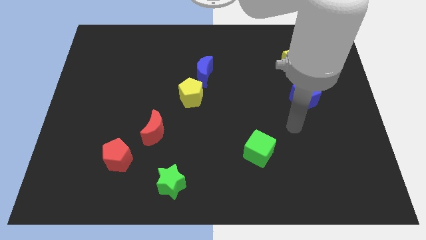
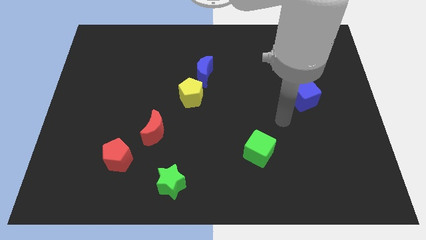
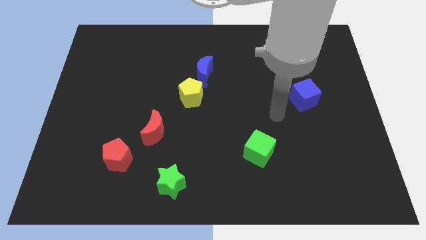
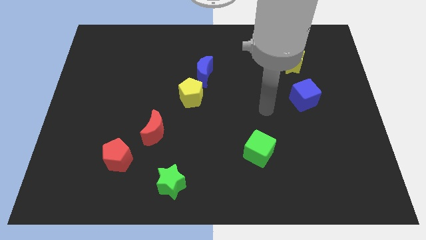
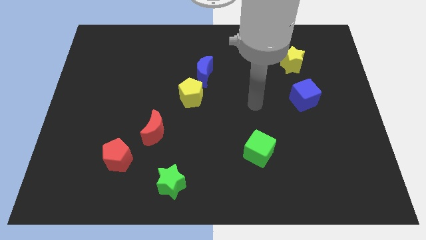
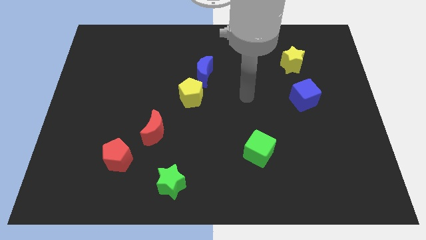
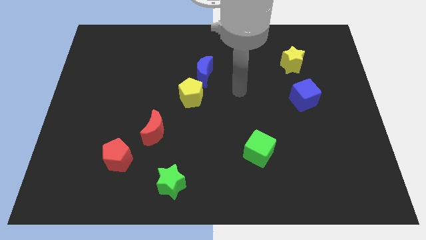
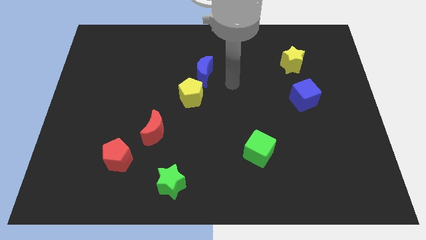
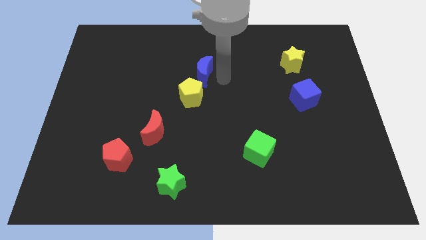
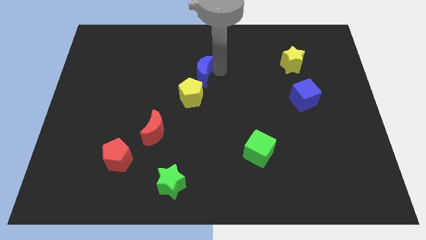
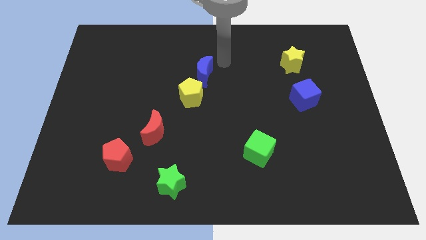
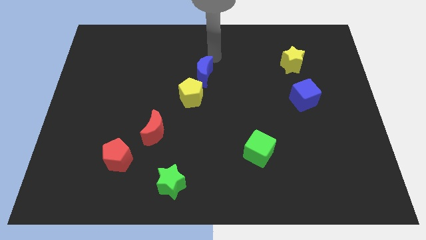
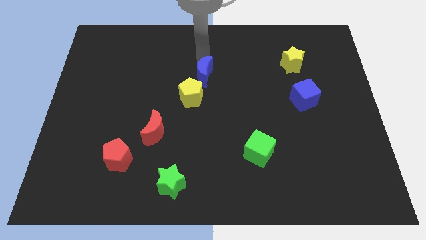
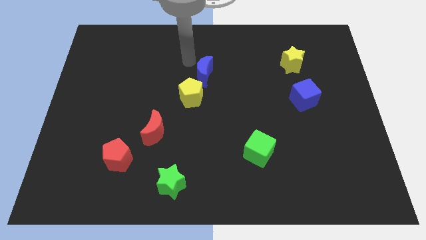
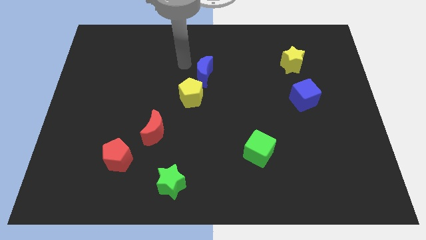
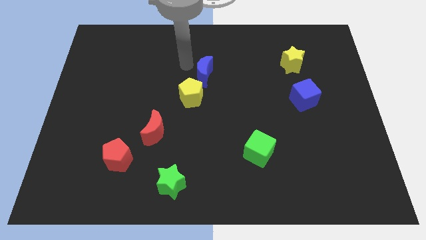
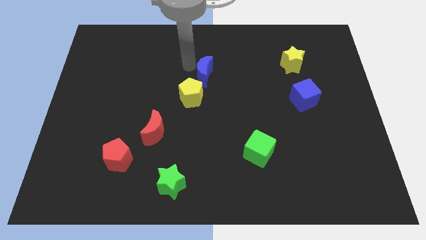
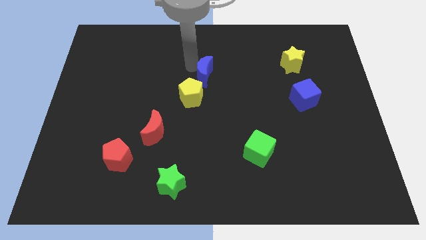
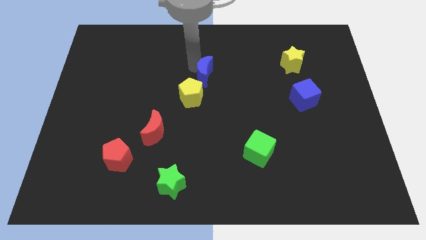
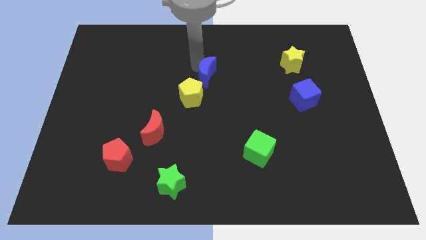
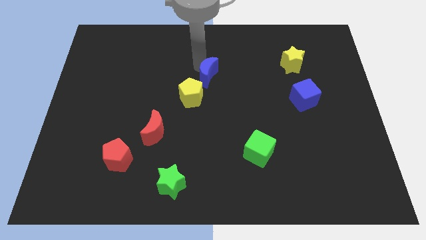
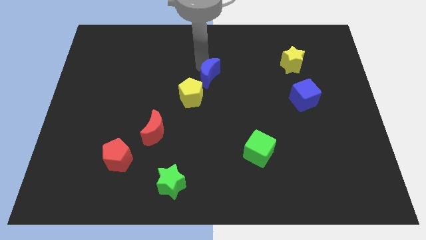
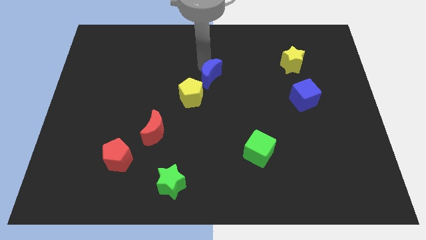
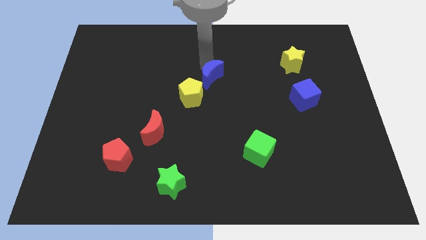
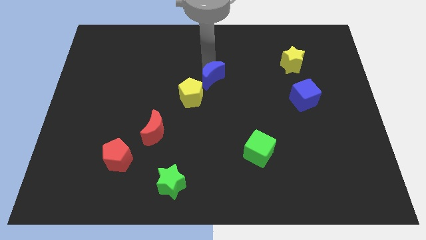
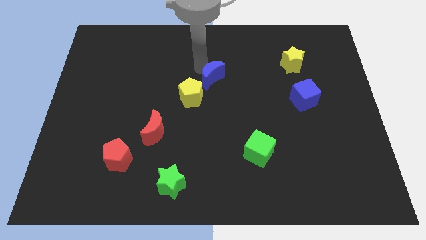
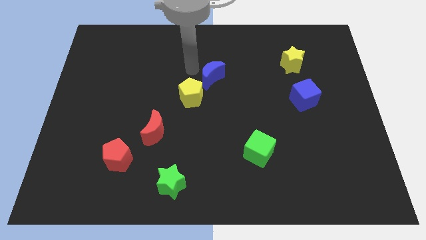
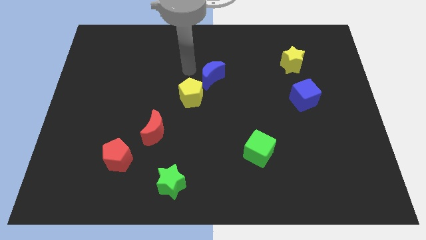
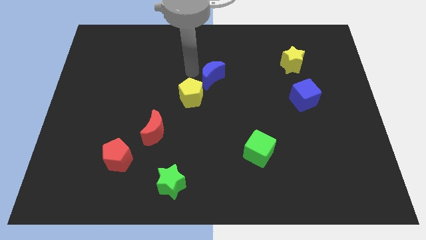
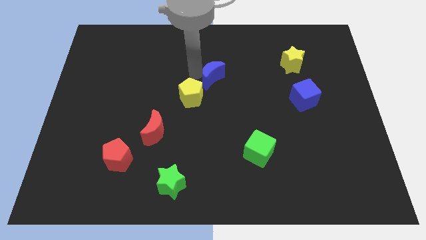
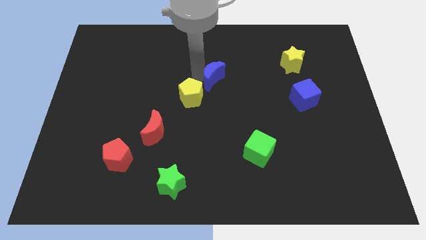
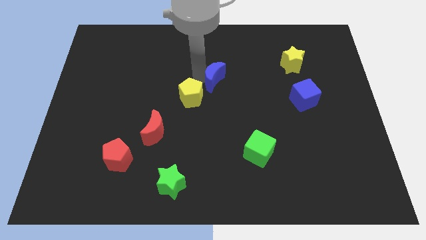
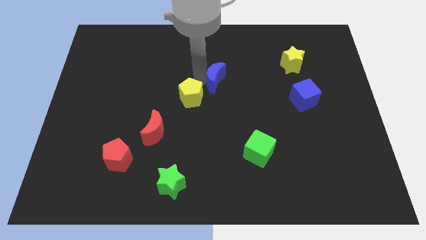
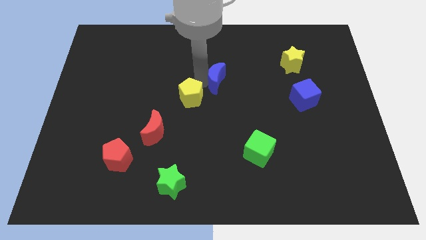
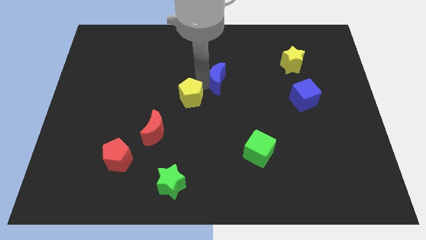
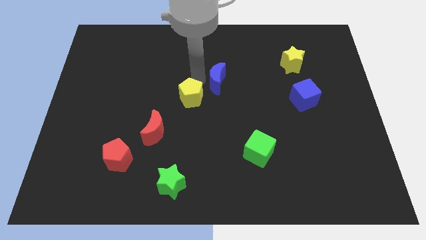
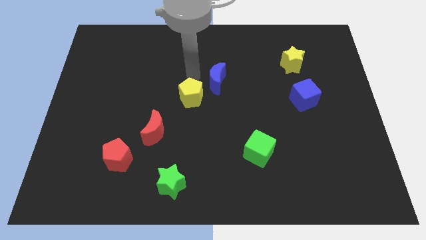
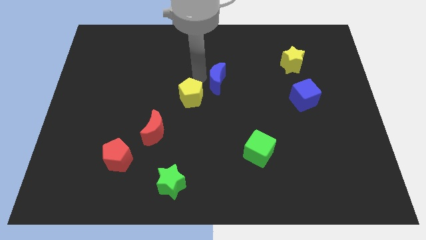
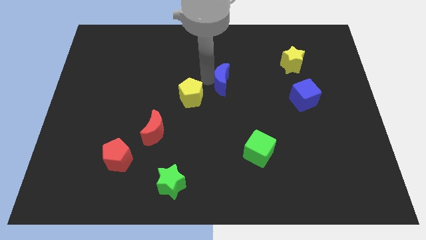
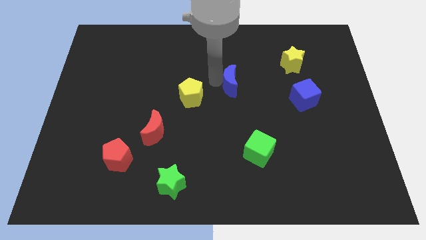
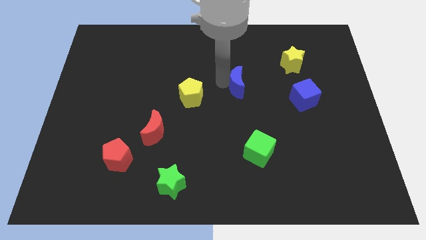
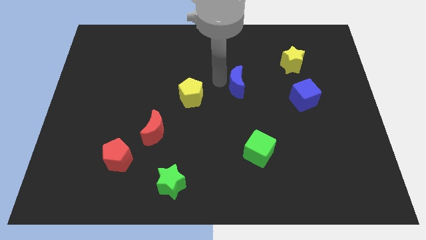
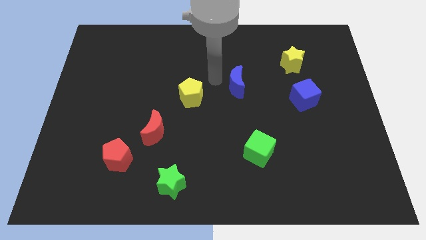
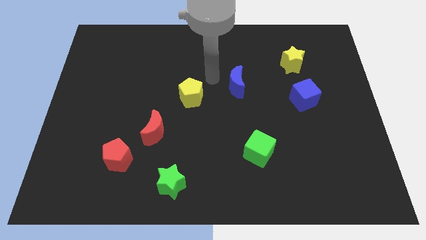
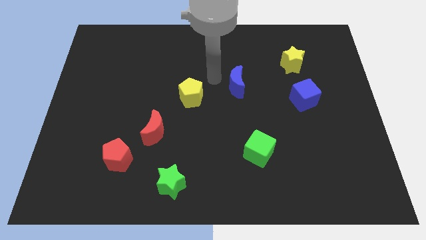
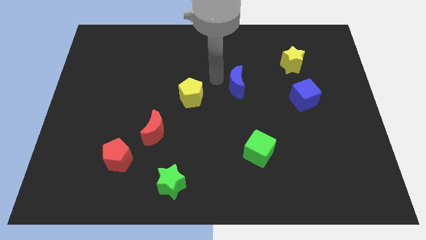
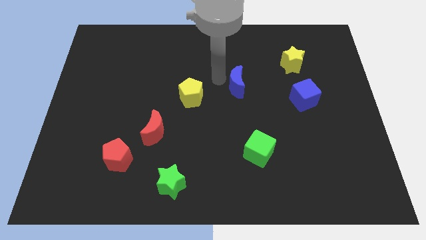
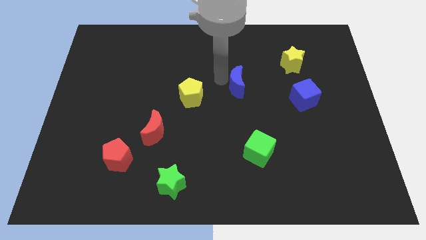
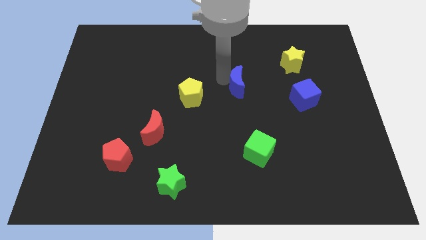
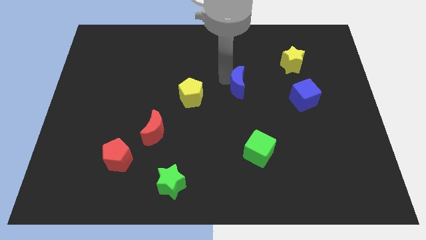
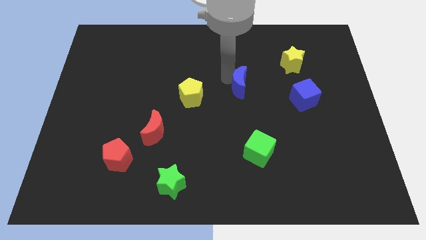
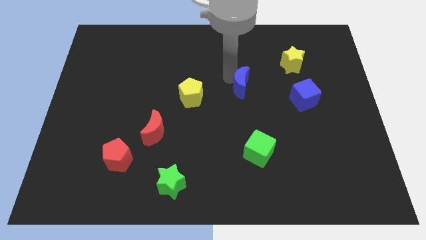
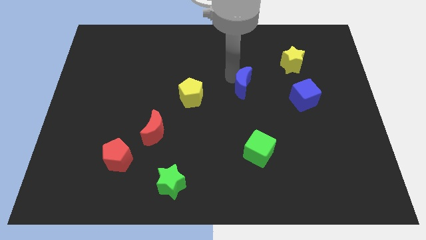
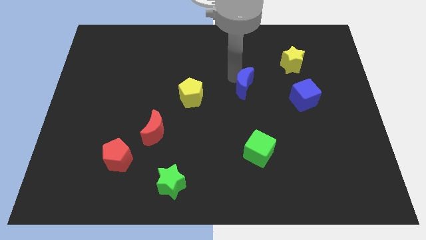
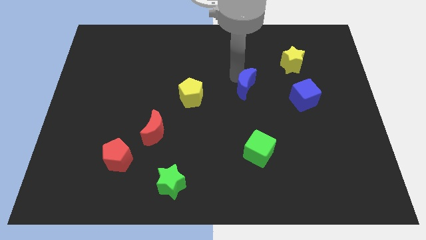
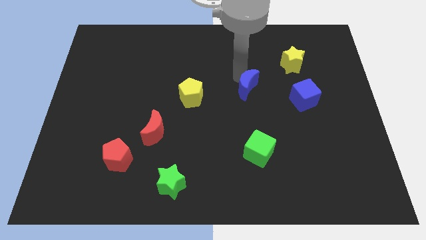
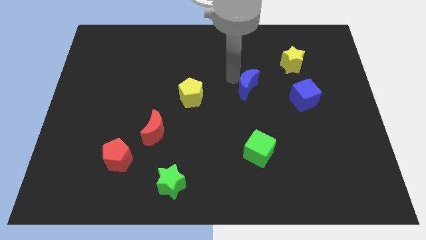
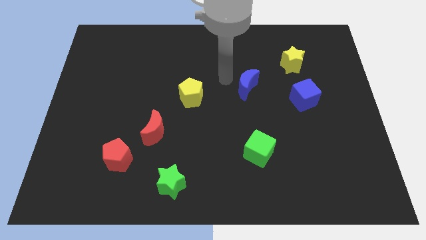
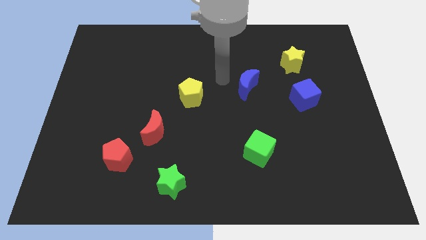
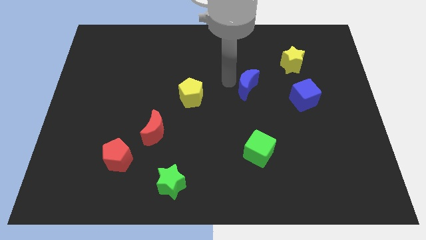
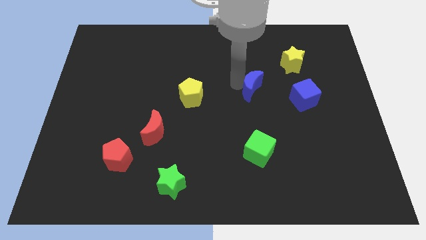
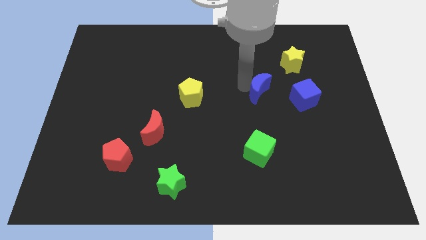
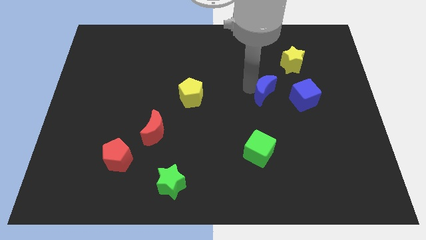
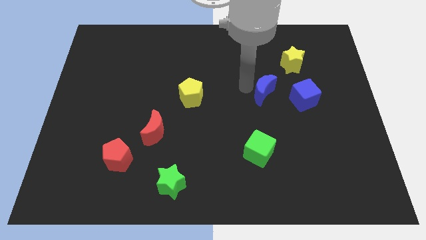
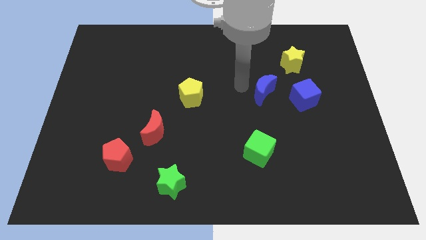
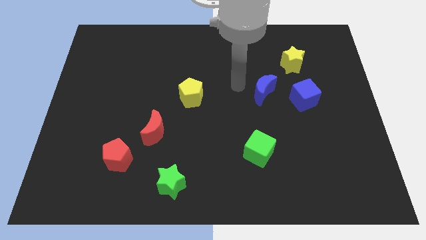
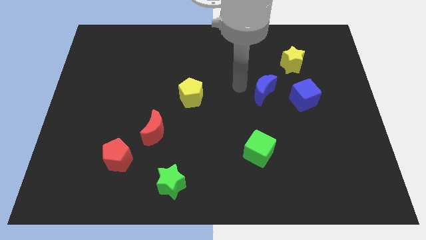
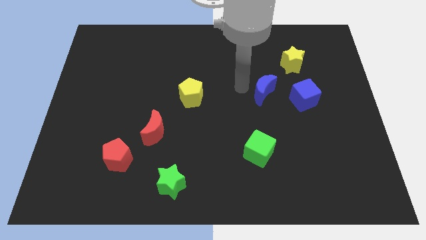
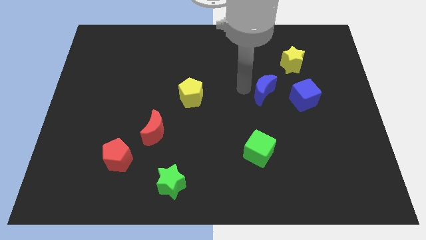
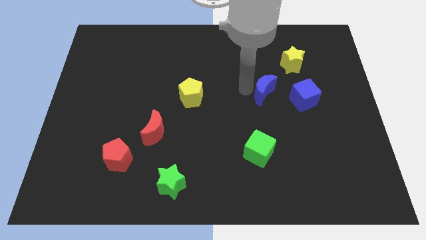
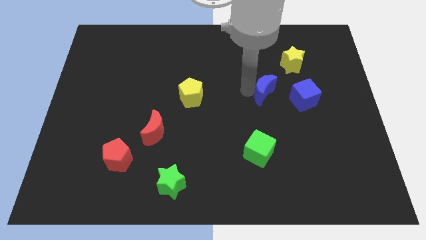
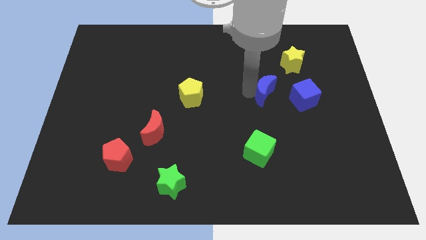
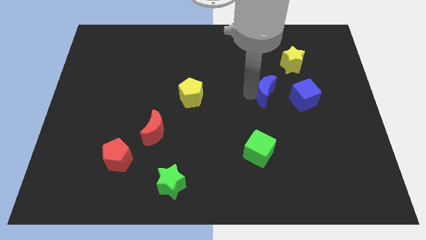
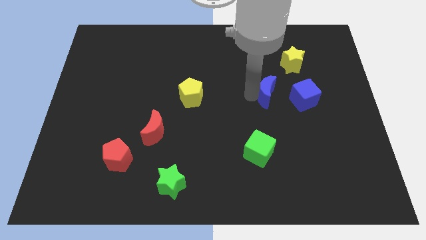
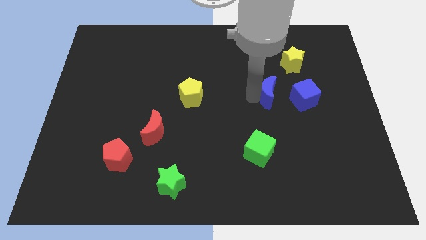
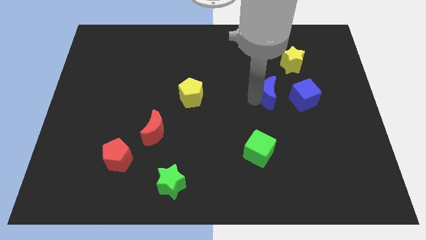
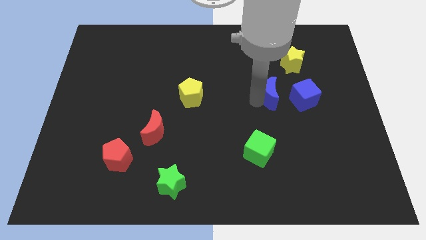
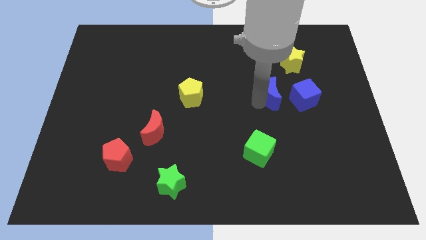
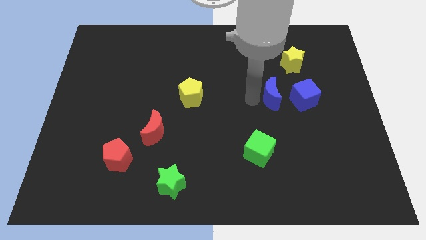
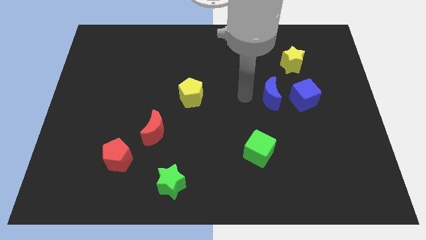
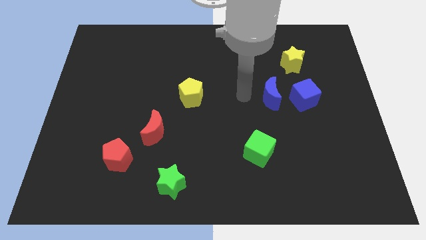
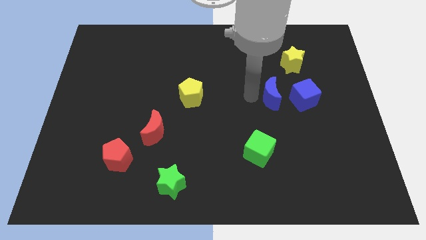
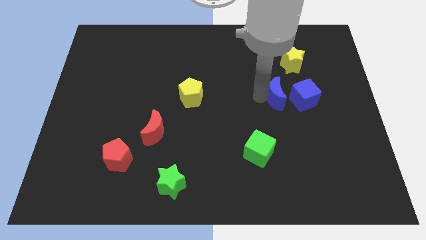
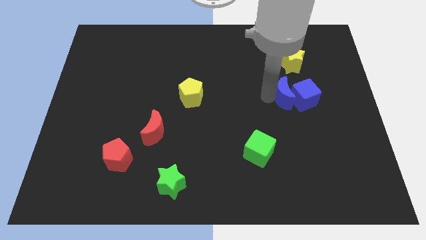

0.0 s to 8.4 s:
move the blue moon towards the blue cube
